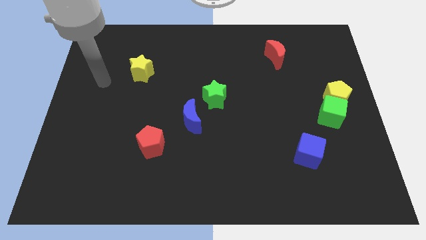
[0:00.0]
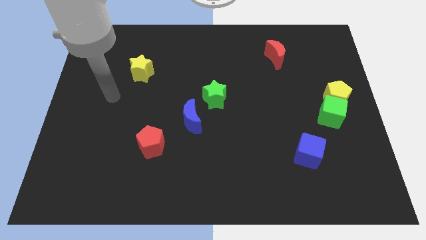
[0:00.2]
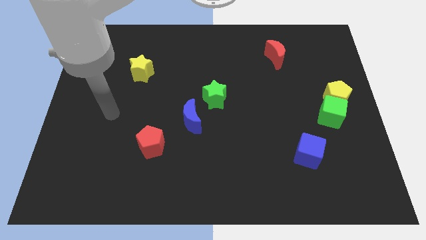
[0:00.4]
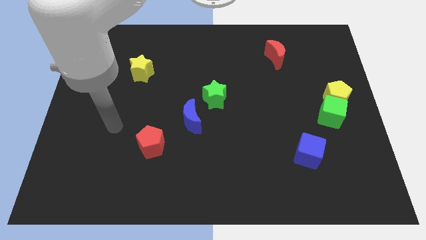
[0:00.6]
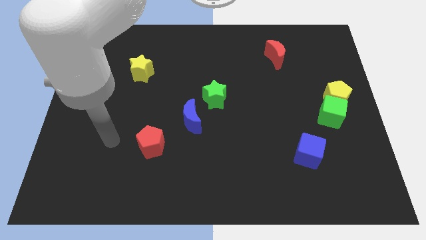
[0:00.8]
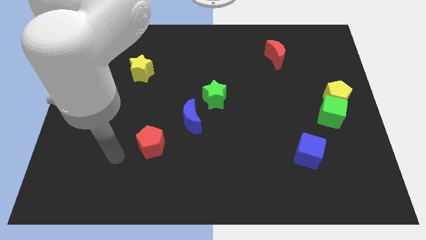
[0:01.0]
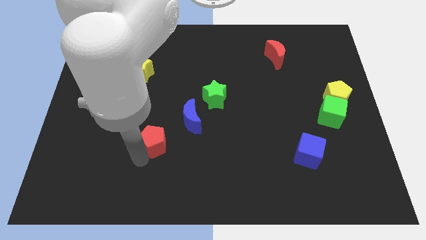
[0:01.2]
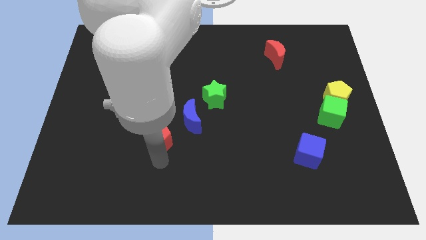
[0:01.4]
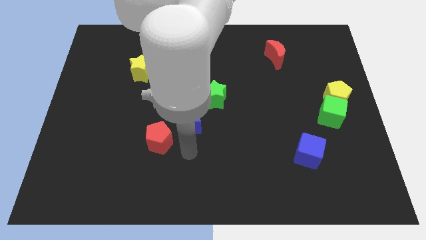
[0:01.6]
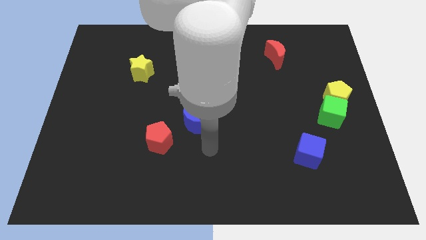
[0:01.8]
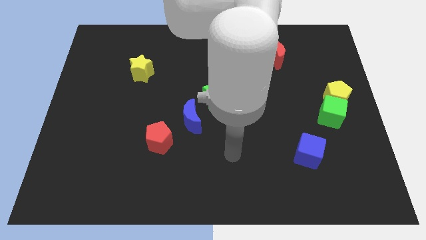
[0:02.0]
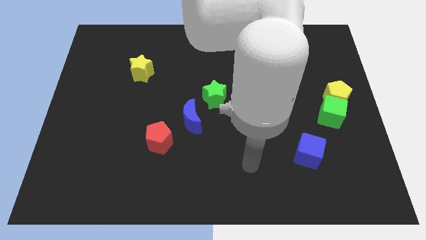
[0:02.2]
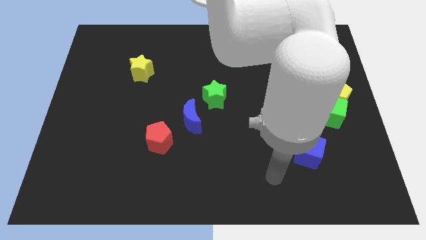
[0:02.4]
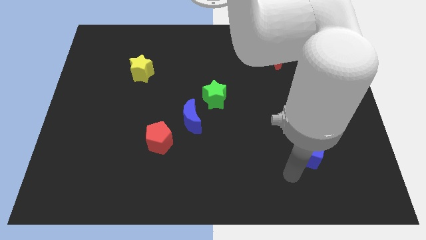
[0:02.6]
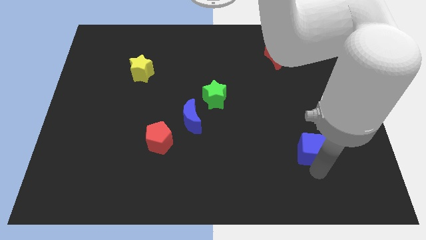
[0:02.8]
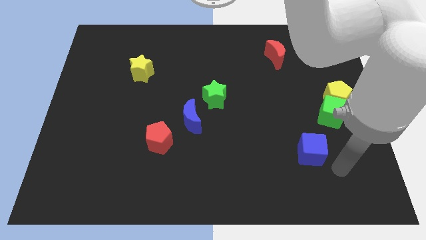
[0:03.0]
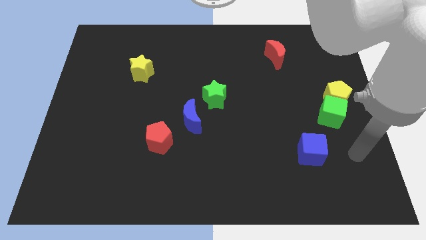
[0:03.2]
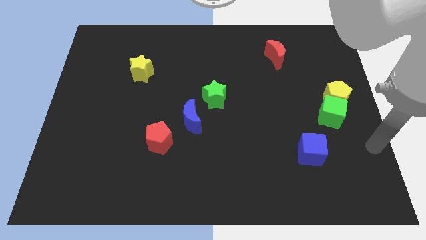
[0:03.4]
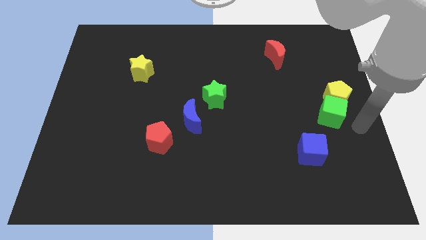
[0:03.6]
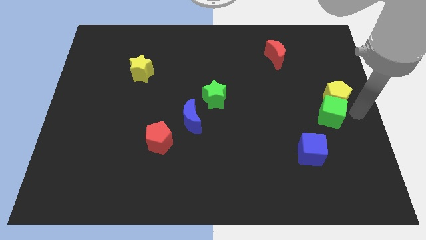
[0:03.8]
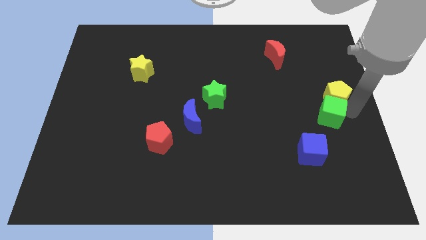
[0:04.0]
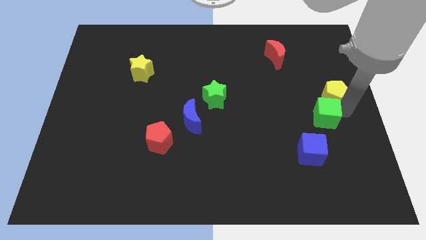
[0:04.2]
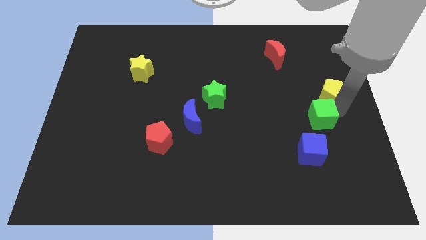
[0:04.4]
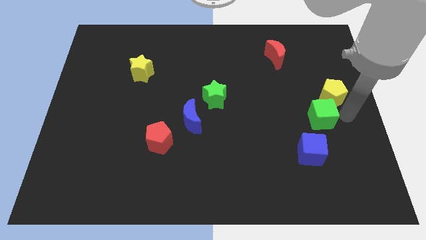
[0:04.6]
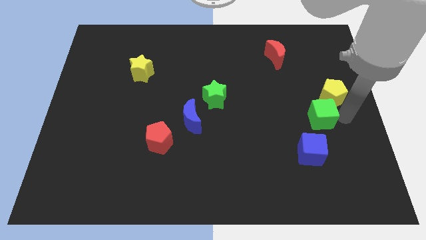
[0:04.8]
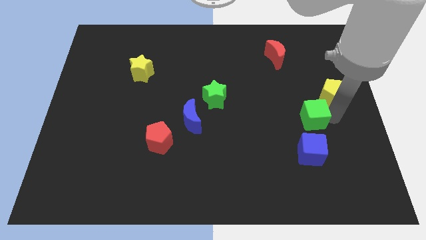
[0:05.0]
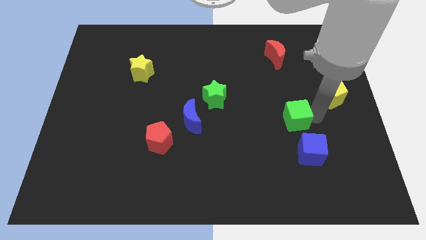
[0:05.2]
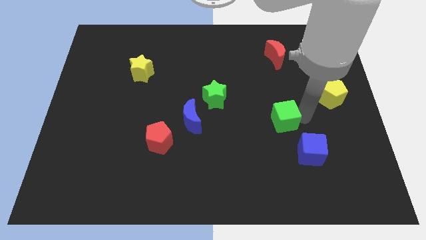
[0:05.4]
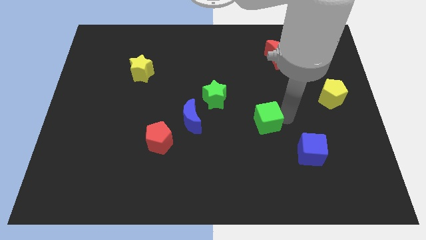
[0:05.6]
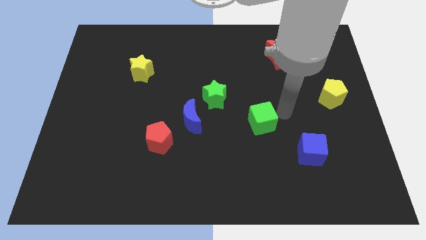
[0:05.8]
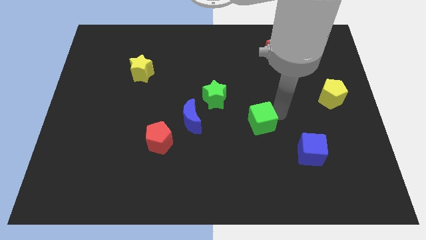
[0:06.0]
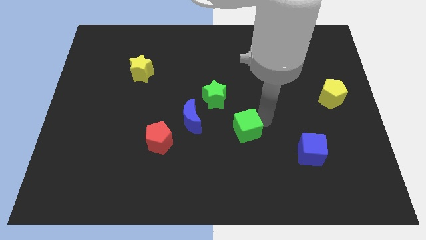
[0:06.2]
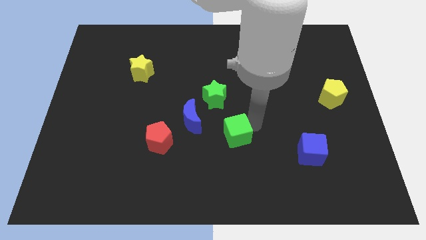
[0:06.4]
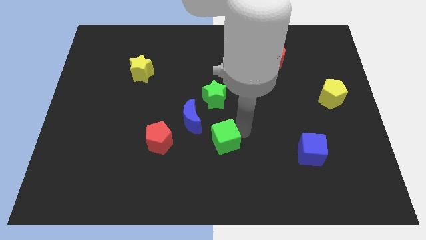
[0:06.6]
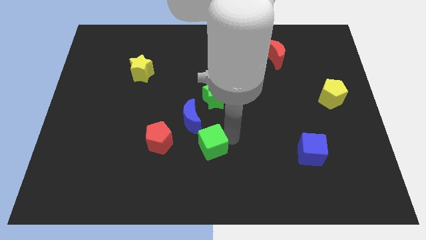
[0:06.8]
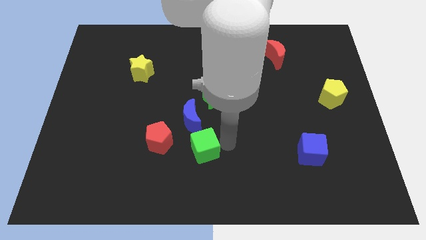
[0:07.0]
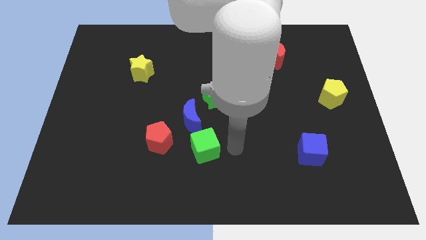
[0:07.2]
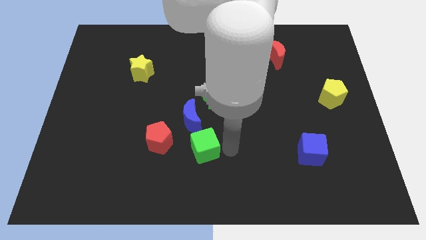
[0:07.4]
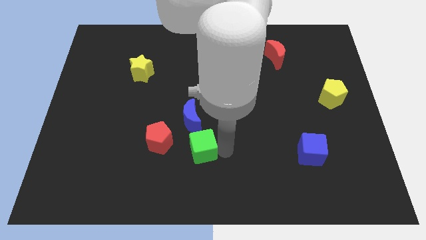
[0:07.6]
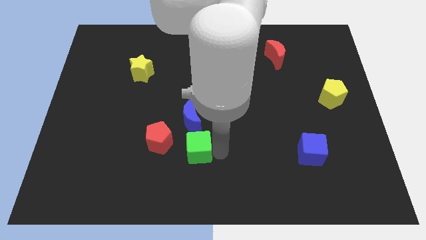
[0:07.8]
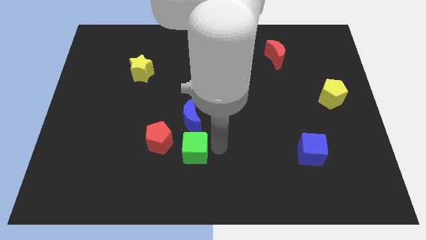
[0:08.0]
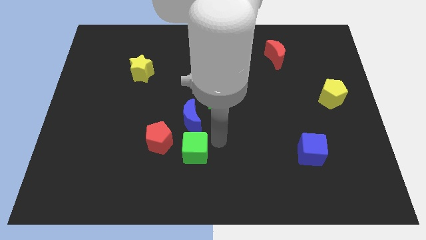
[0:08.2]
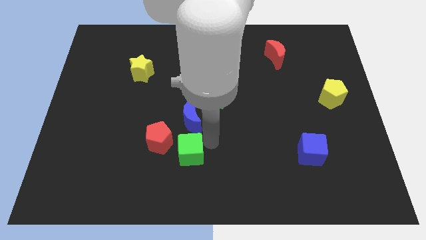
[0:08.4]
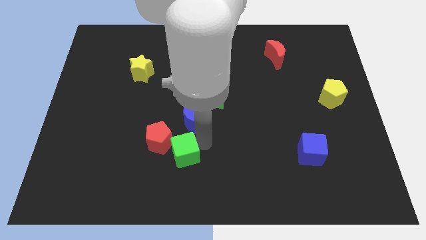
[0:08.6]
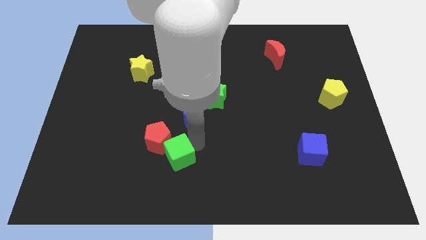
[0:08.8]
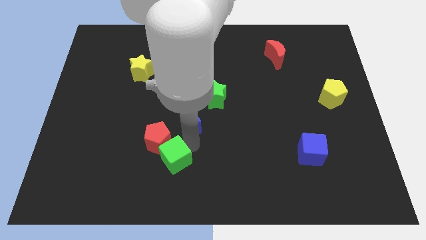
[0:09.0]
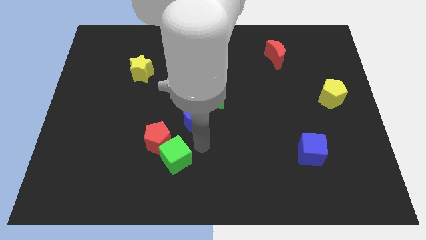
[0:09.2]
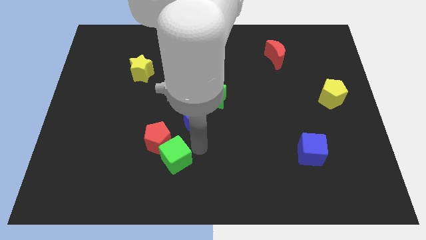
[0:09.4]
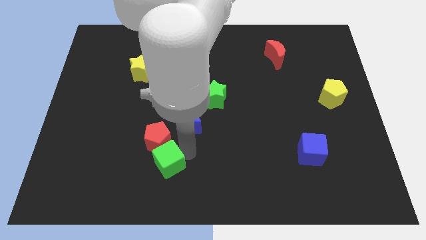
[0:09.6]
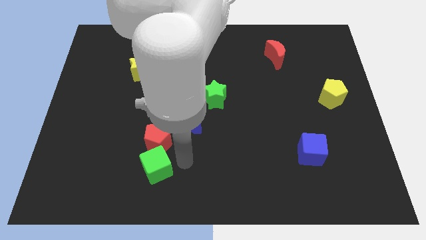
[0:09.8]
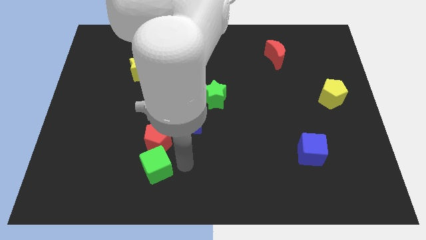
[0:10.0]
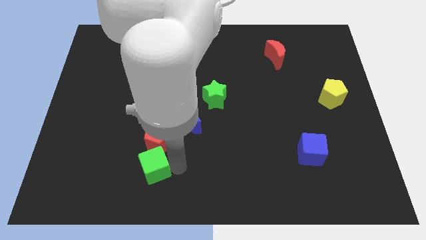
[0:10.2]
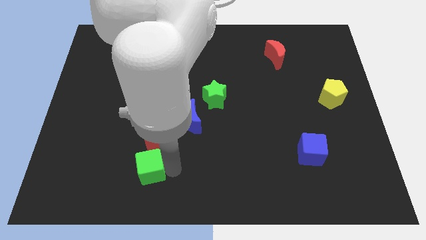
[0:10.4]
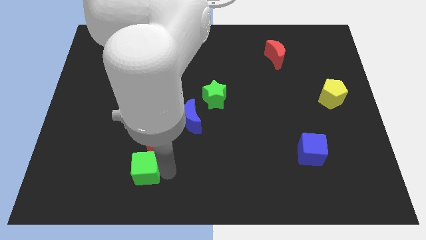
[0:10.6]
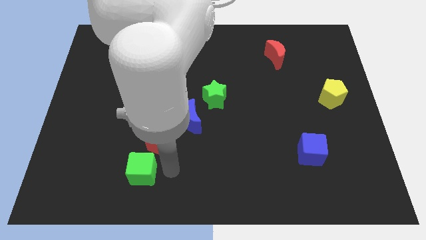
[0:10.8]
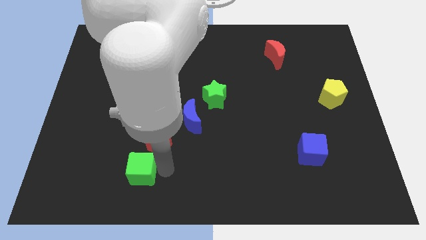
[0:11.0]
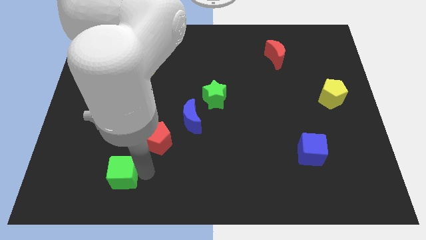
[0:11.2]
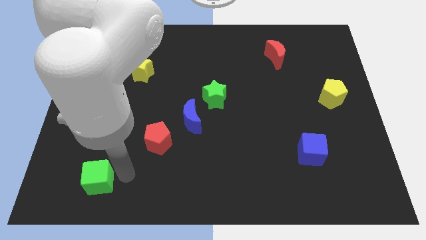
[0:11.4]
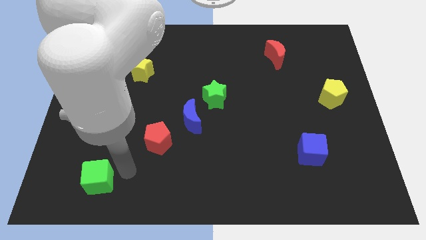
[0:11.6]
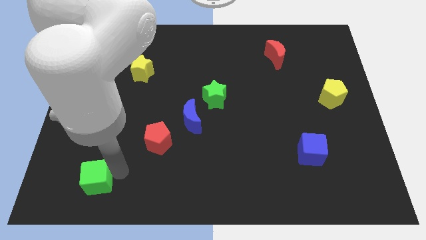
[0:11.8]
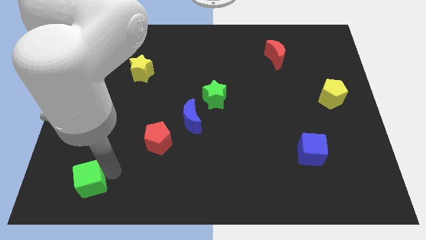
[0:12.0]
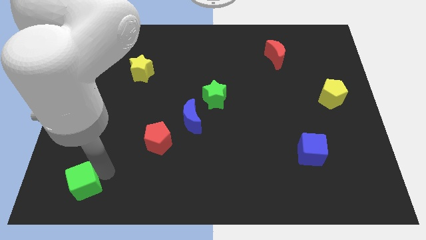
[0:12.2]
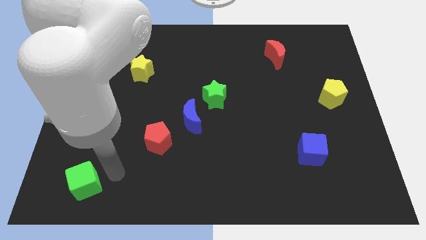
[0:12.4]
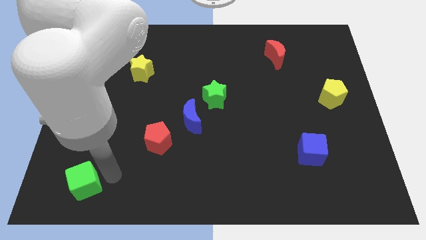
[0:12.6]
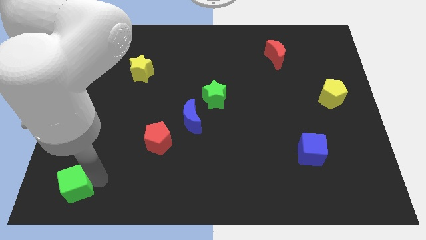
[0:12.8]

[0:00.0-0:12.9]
move the green cube to the bottom left

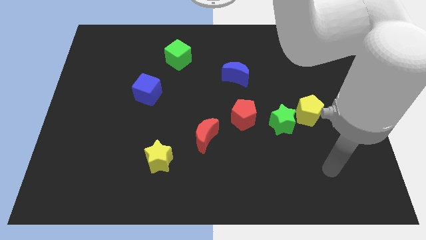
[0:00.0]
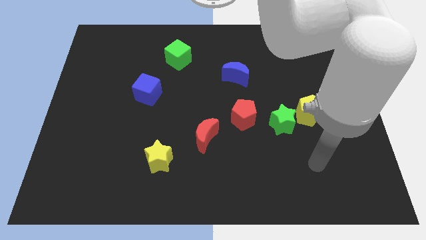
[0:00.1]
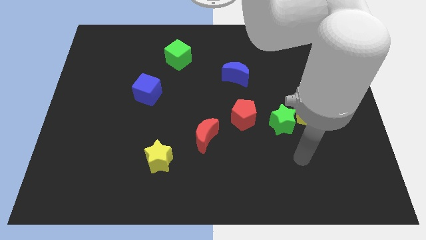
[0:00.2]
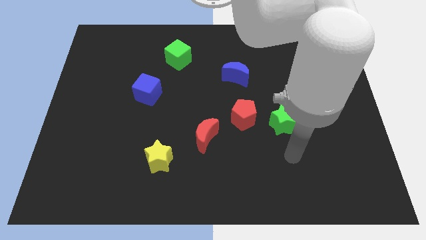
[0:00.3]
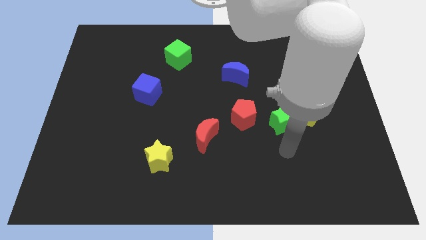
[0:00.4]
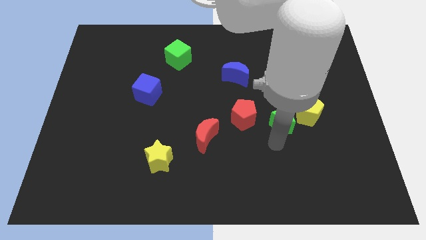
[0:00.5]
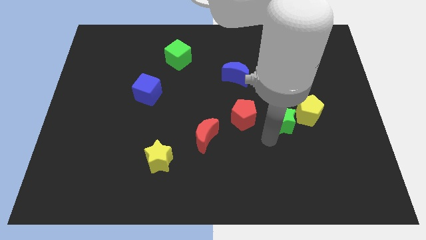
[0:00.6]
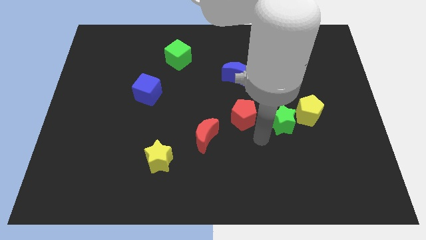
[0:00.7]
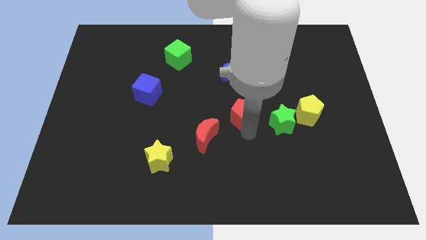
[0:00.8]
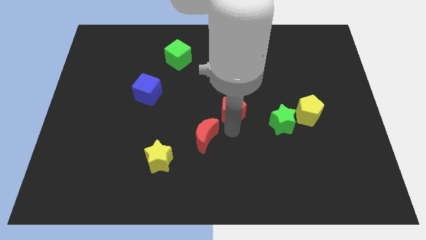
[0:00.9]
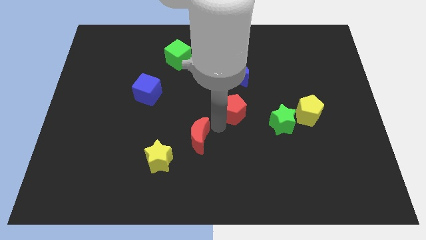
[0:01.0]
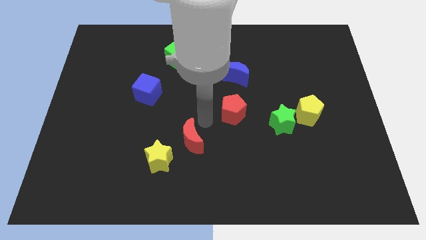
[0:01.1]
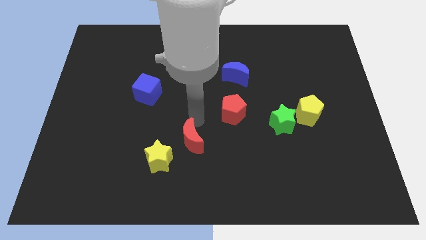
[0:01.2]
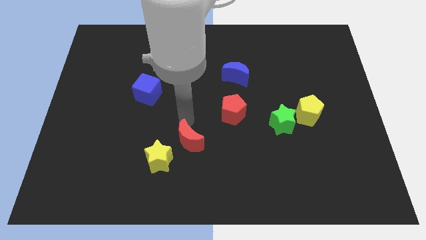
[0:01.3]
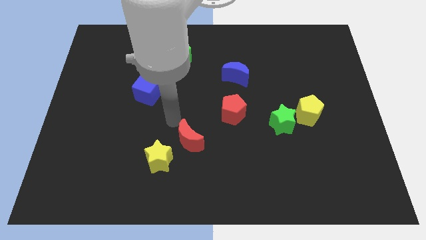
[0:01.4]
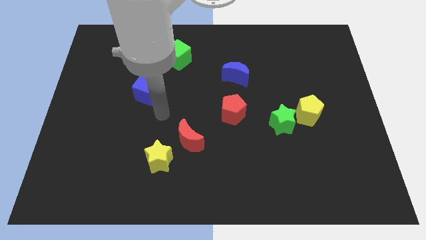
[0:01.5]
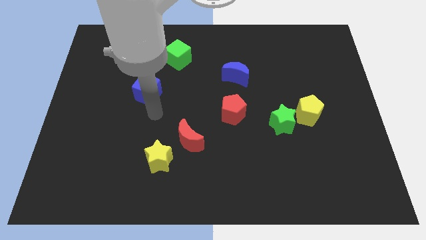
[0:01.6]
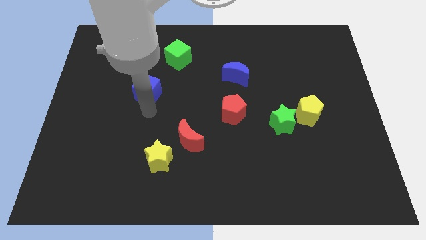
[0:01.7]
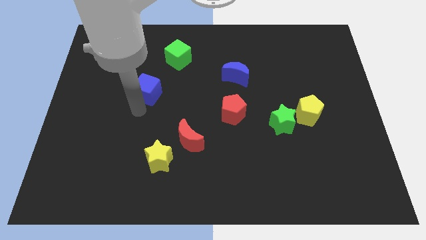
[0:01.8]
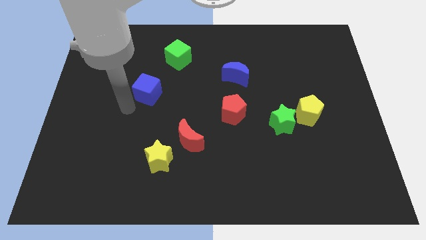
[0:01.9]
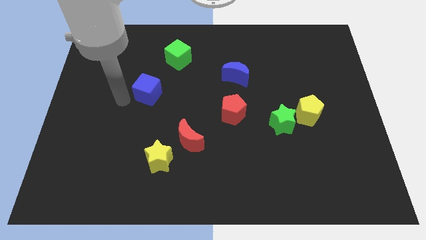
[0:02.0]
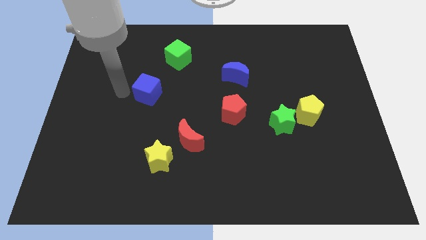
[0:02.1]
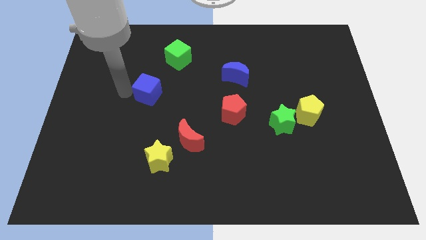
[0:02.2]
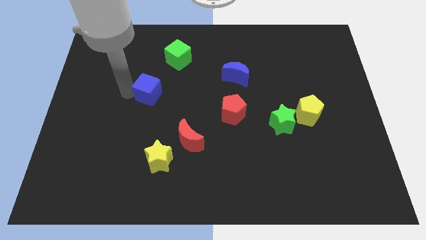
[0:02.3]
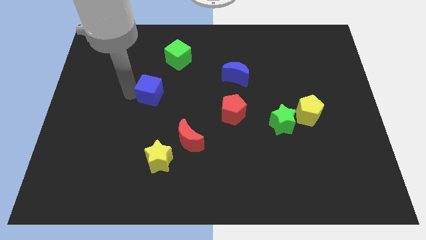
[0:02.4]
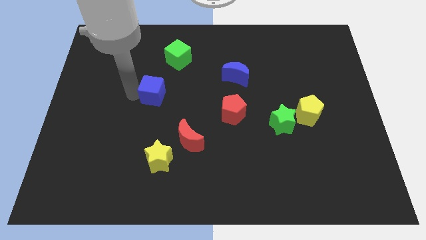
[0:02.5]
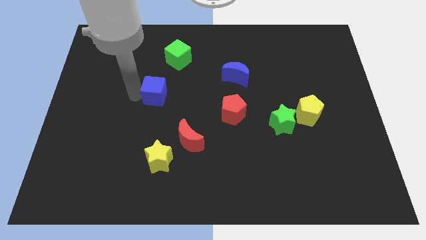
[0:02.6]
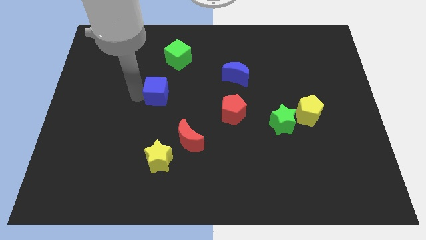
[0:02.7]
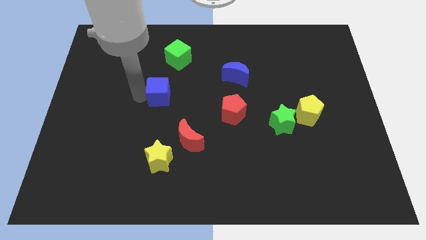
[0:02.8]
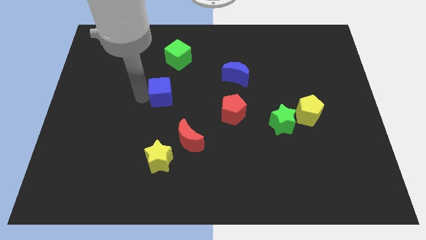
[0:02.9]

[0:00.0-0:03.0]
slide the blue cube to the center
